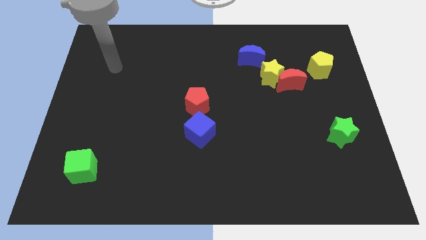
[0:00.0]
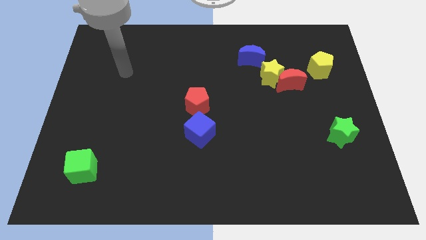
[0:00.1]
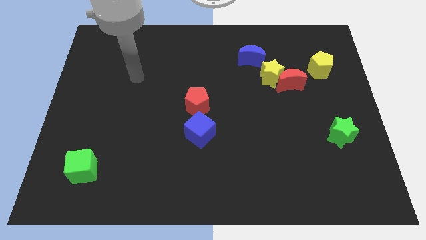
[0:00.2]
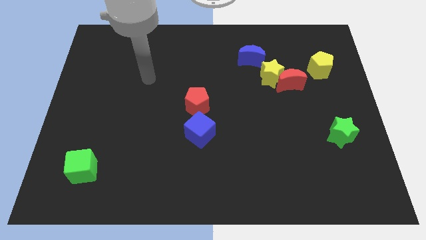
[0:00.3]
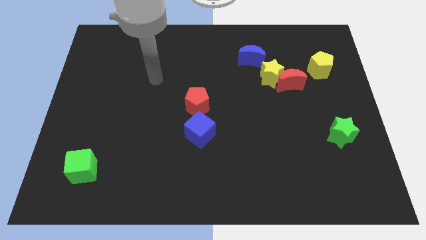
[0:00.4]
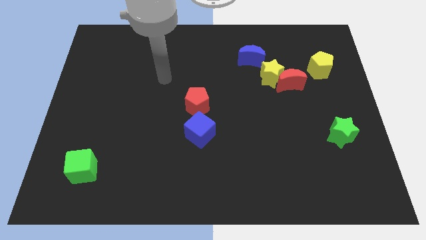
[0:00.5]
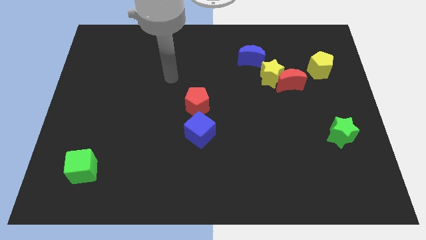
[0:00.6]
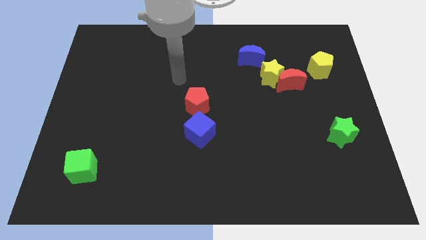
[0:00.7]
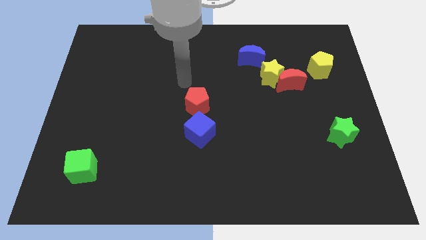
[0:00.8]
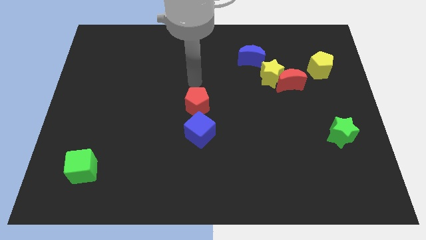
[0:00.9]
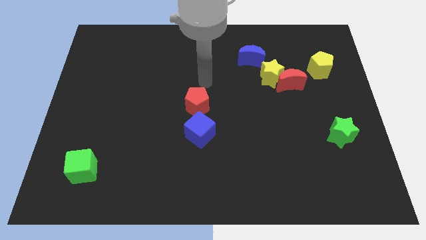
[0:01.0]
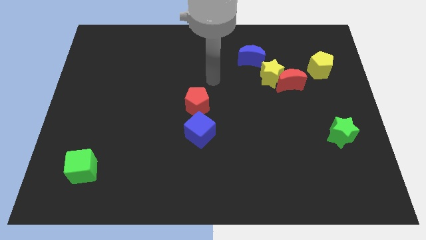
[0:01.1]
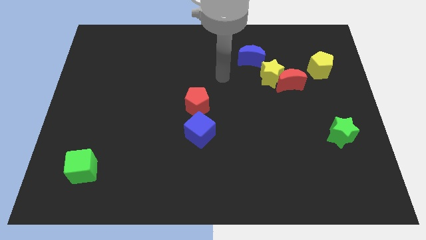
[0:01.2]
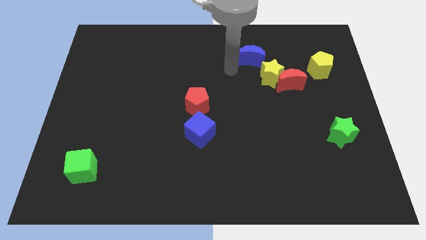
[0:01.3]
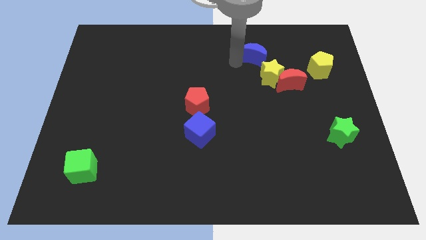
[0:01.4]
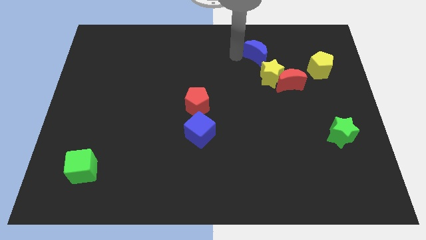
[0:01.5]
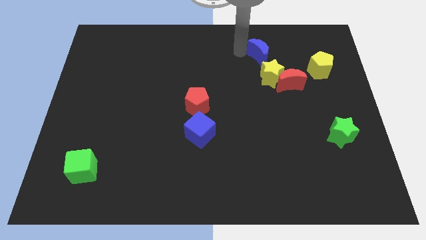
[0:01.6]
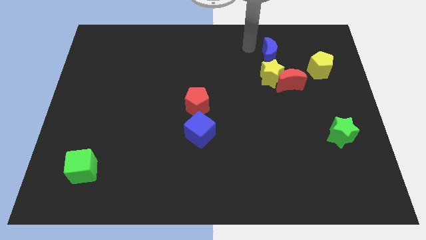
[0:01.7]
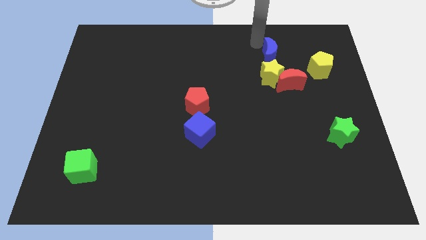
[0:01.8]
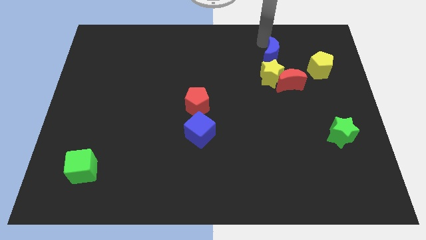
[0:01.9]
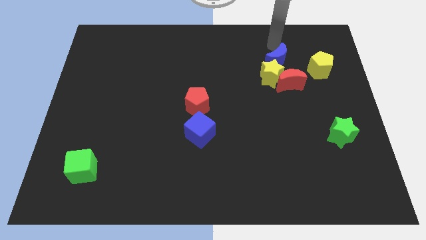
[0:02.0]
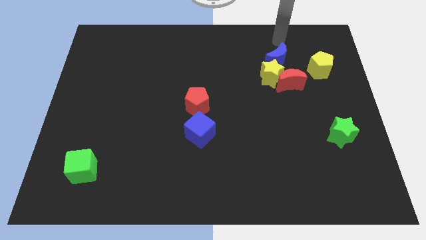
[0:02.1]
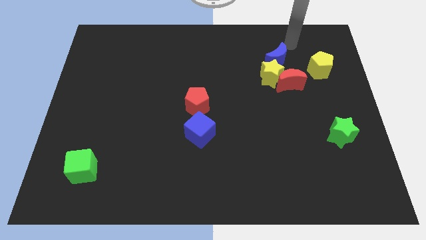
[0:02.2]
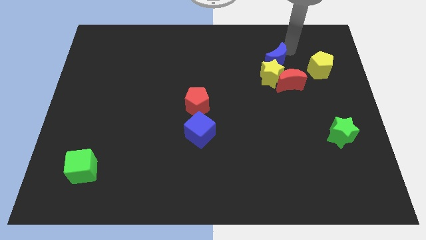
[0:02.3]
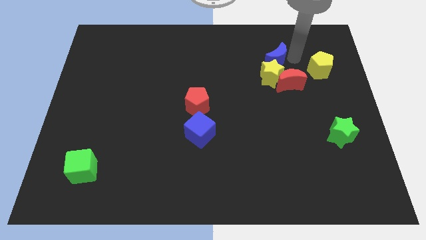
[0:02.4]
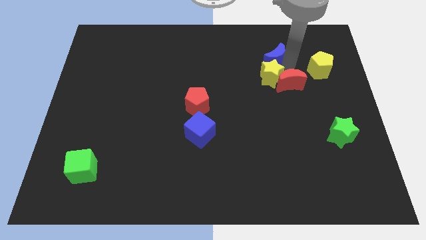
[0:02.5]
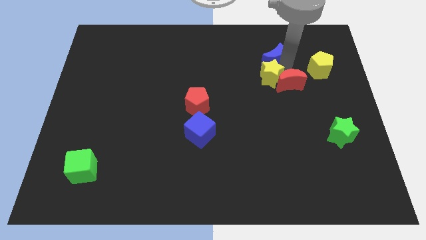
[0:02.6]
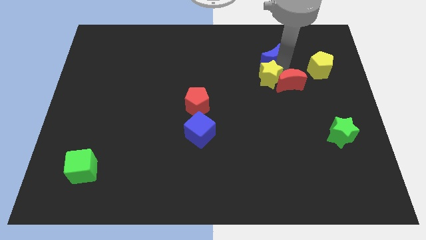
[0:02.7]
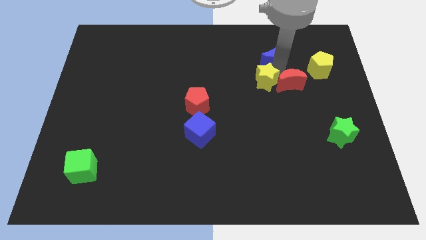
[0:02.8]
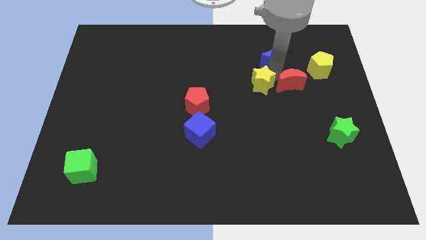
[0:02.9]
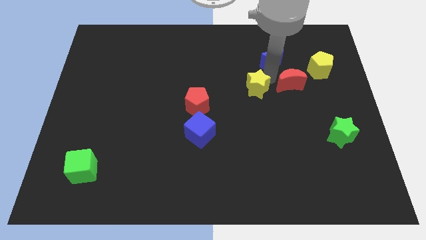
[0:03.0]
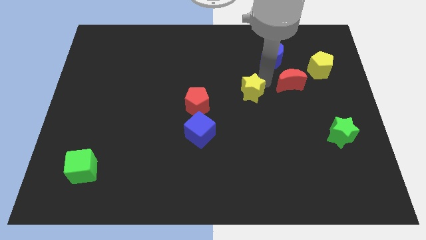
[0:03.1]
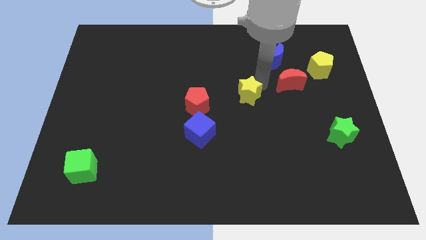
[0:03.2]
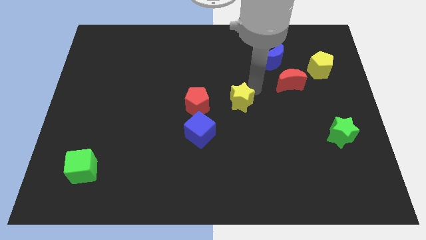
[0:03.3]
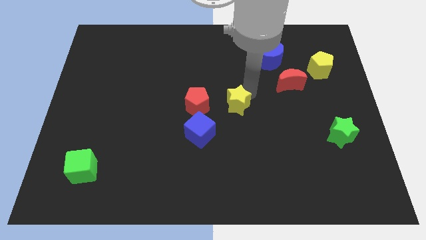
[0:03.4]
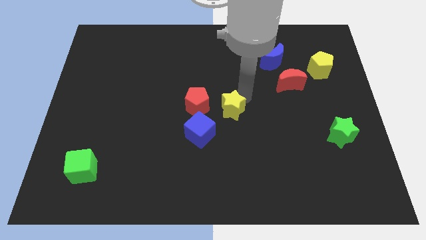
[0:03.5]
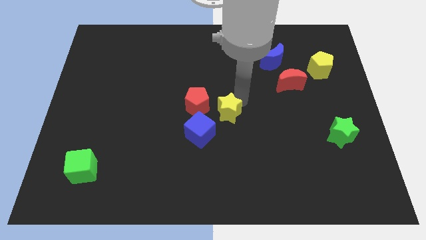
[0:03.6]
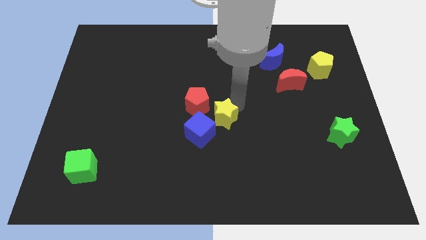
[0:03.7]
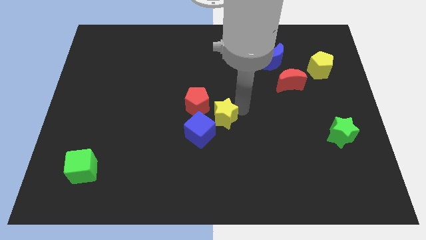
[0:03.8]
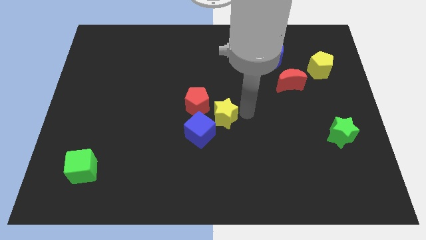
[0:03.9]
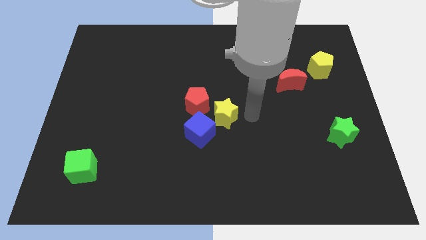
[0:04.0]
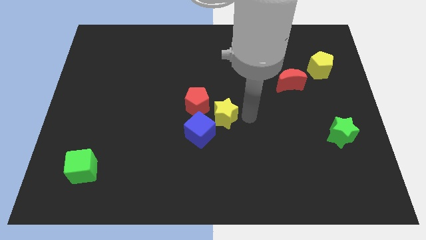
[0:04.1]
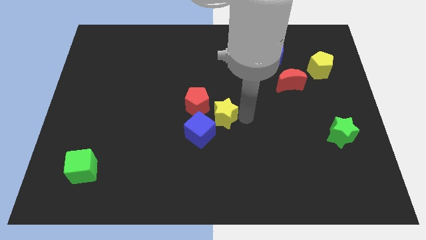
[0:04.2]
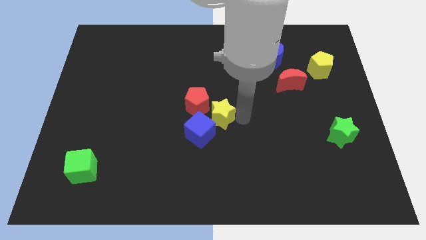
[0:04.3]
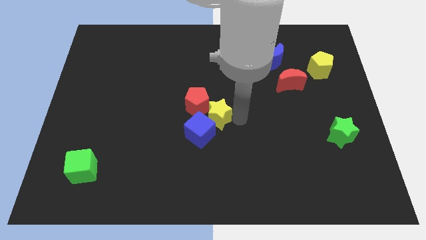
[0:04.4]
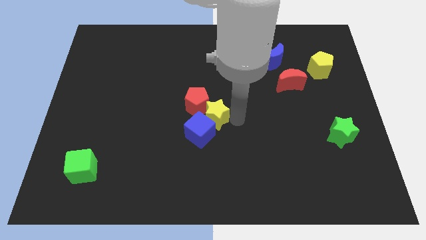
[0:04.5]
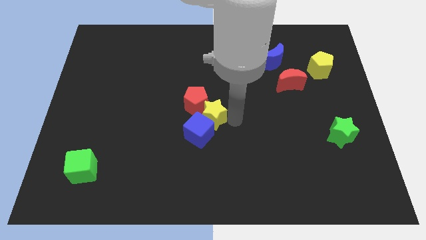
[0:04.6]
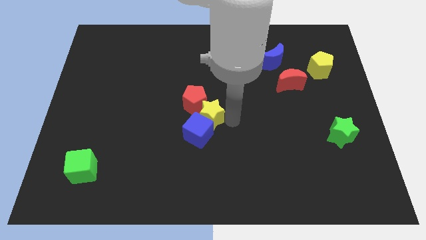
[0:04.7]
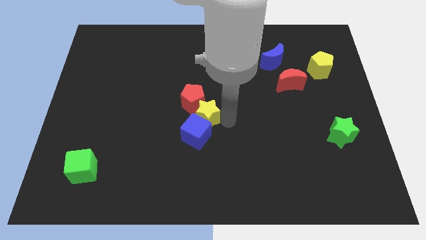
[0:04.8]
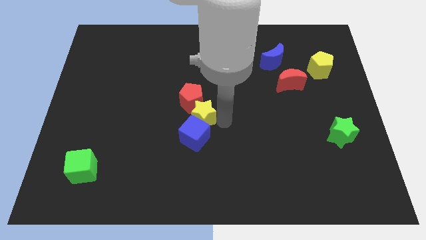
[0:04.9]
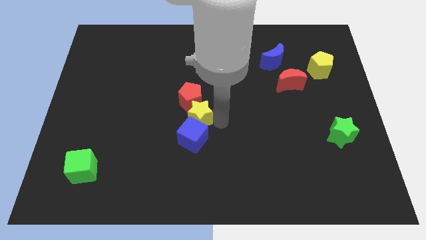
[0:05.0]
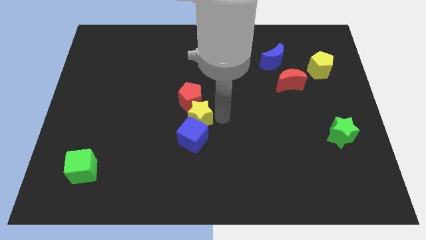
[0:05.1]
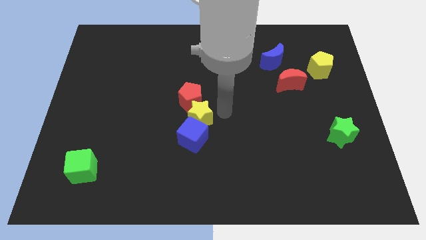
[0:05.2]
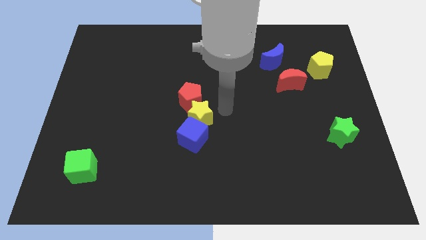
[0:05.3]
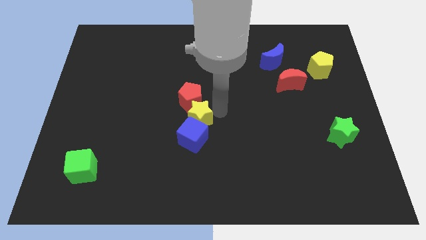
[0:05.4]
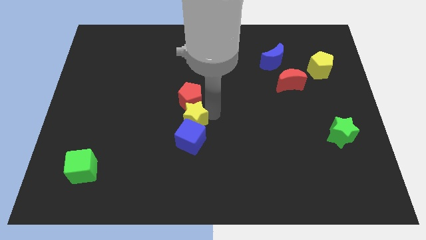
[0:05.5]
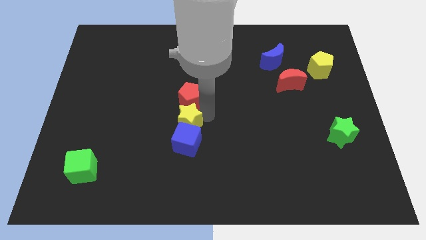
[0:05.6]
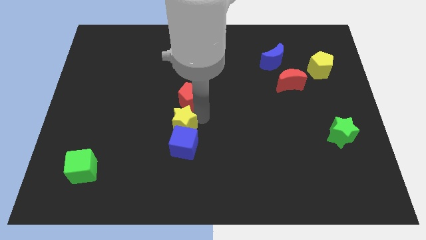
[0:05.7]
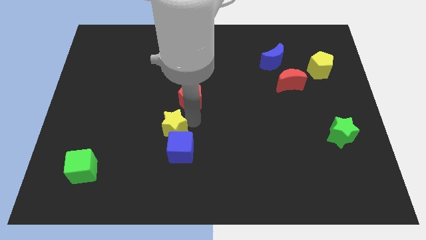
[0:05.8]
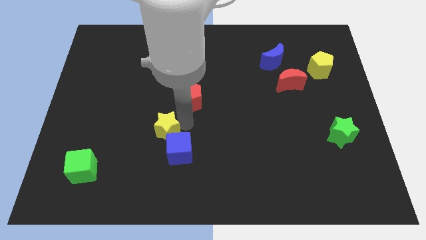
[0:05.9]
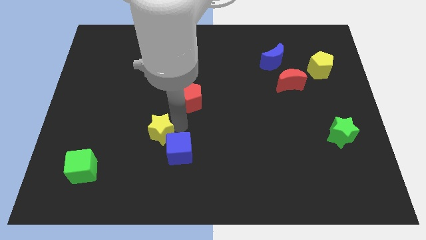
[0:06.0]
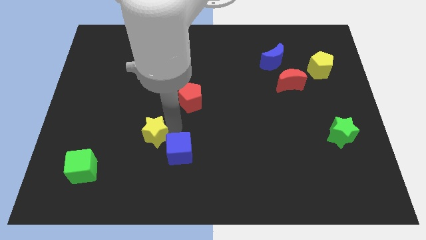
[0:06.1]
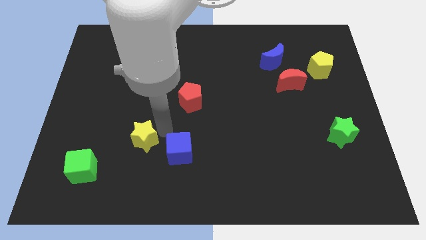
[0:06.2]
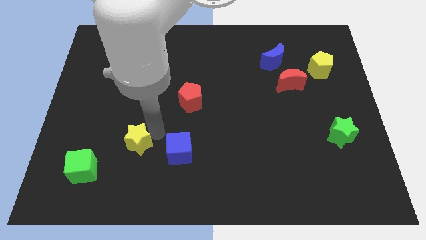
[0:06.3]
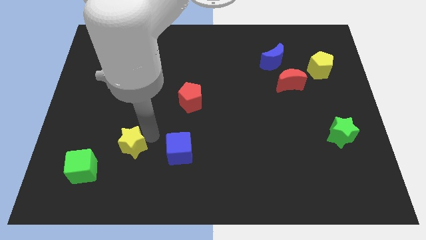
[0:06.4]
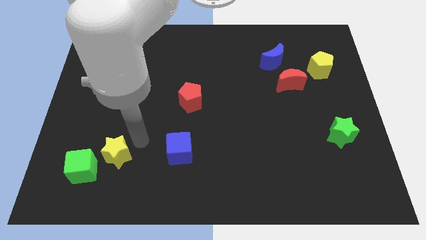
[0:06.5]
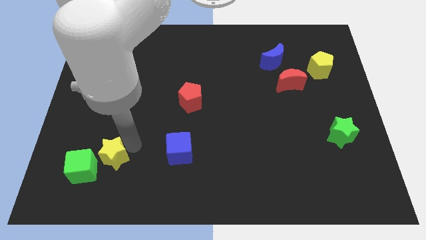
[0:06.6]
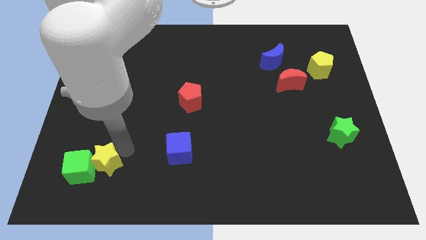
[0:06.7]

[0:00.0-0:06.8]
push the yellow star towards the green cube

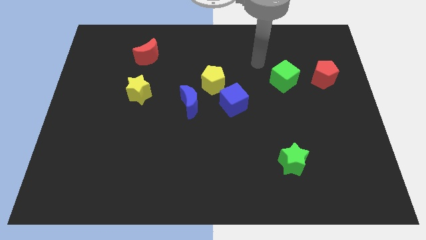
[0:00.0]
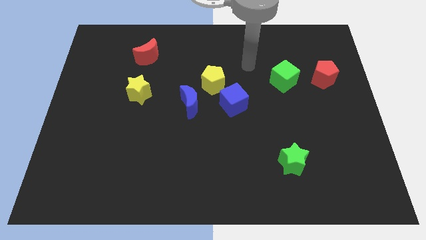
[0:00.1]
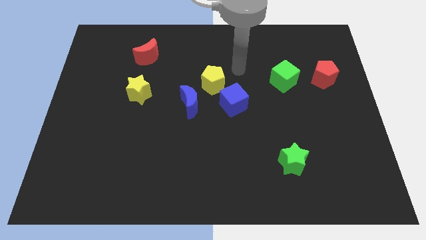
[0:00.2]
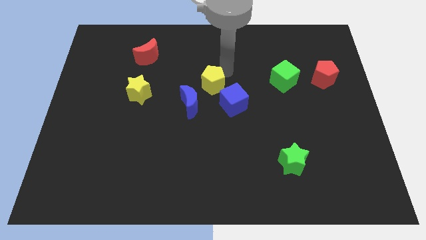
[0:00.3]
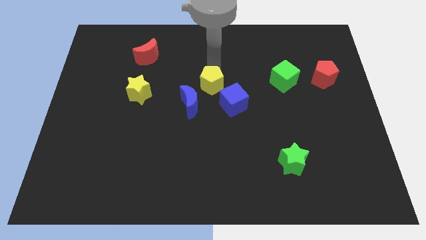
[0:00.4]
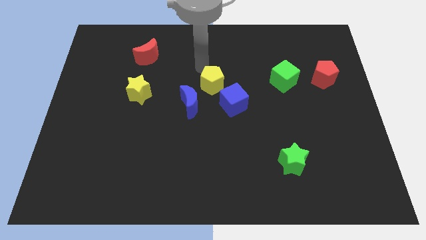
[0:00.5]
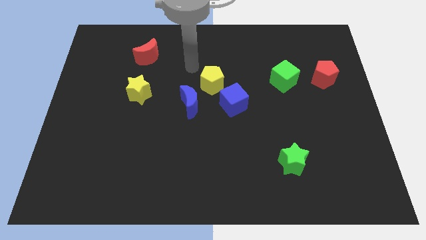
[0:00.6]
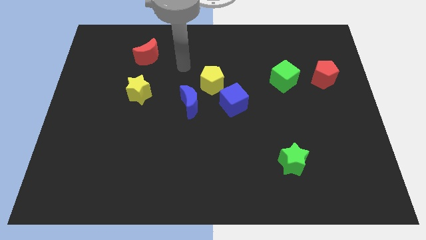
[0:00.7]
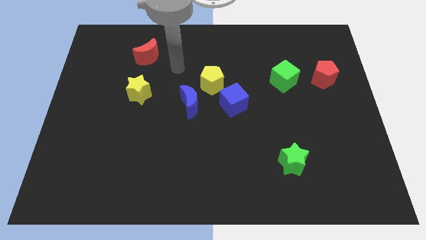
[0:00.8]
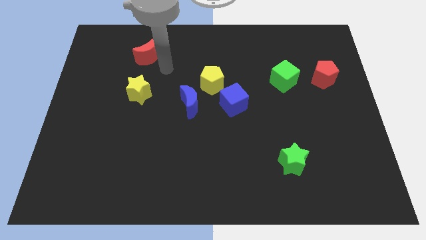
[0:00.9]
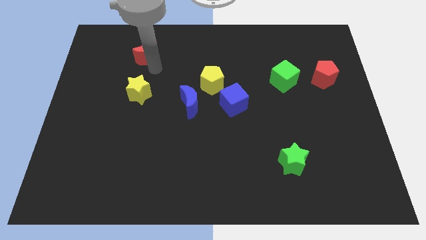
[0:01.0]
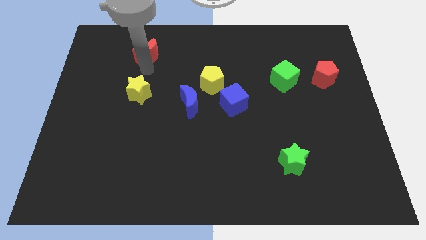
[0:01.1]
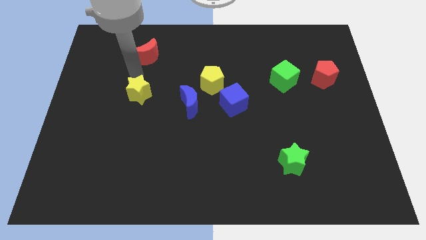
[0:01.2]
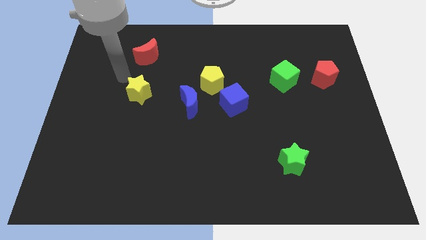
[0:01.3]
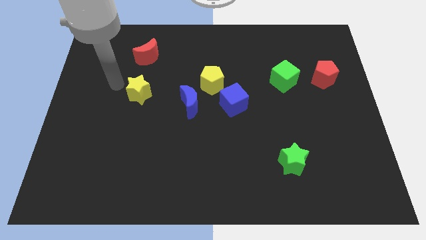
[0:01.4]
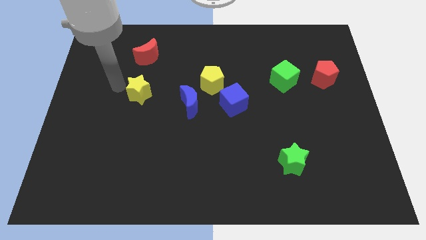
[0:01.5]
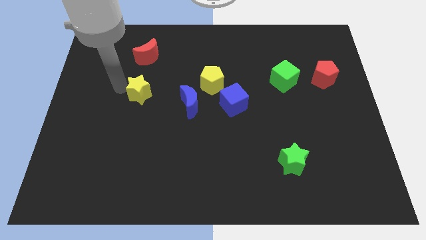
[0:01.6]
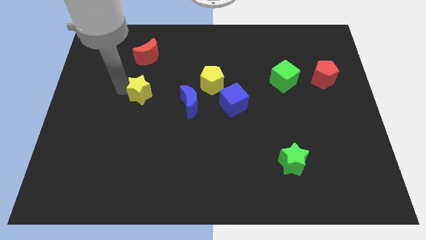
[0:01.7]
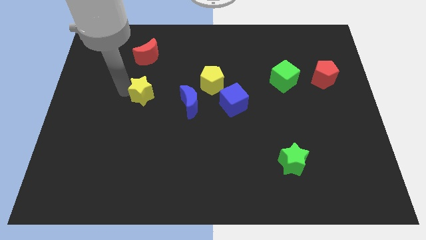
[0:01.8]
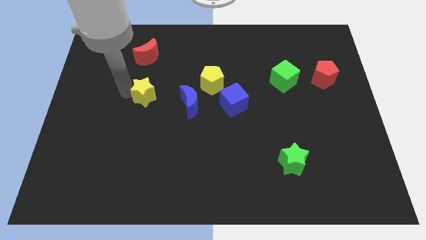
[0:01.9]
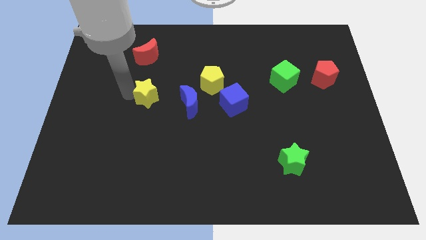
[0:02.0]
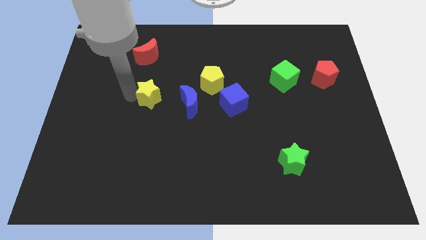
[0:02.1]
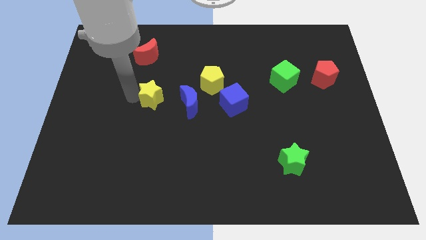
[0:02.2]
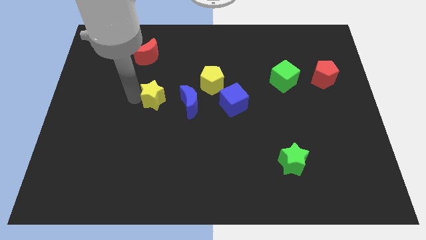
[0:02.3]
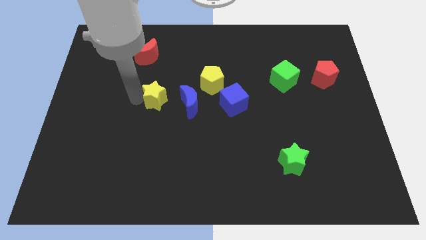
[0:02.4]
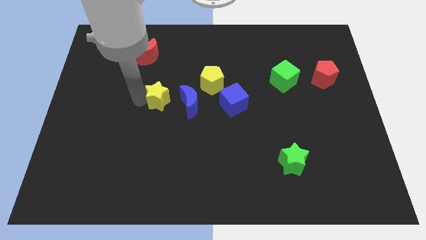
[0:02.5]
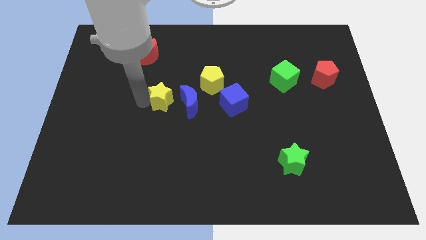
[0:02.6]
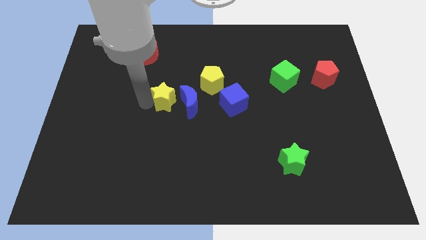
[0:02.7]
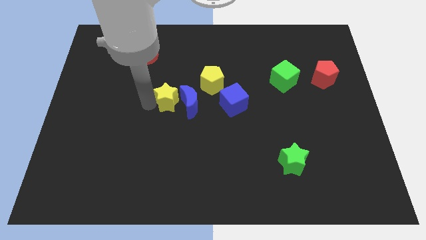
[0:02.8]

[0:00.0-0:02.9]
put the yellow star next to the blue moon
